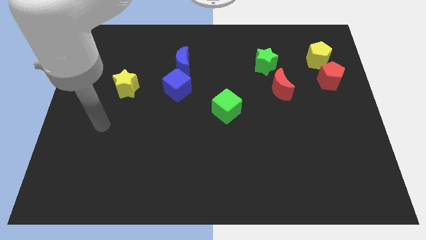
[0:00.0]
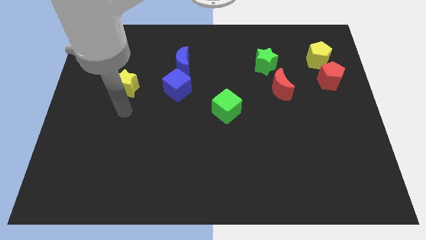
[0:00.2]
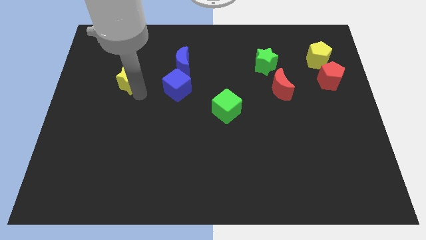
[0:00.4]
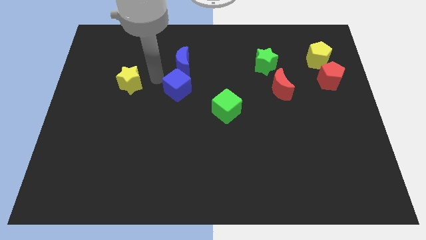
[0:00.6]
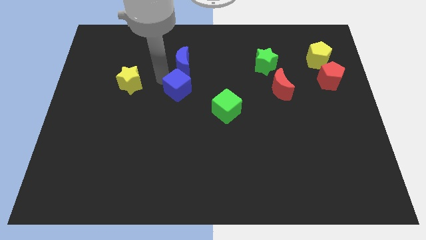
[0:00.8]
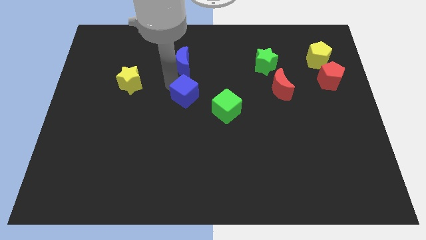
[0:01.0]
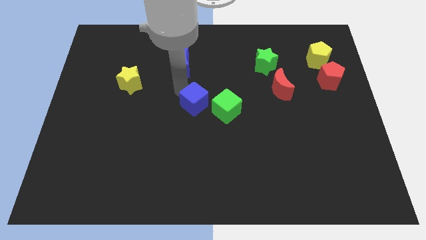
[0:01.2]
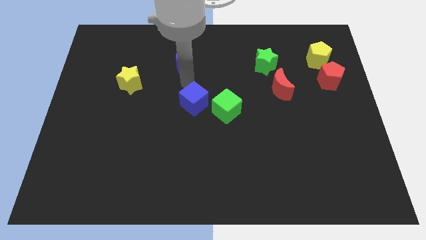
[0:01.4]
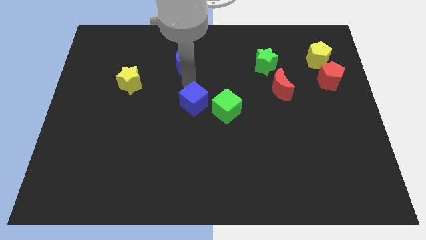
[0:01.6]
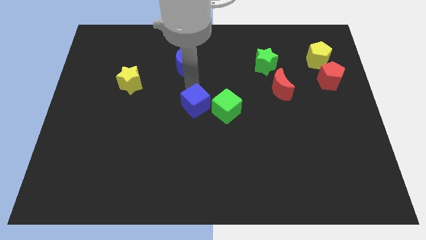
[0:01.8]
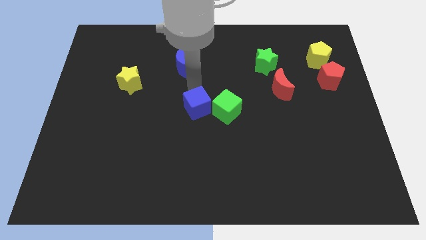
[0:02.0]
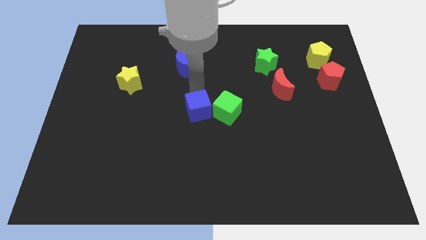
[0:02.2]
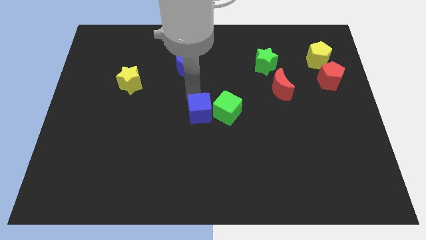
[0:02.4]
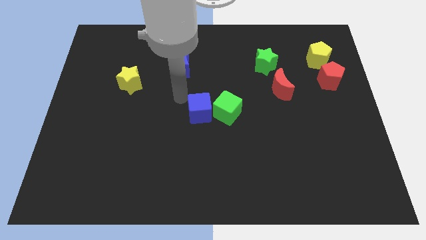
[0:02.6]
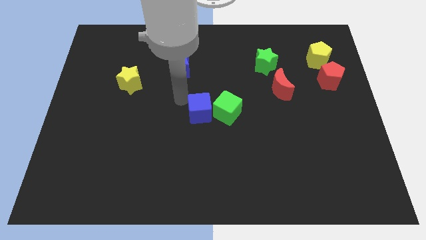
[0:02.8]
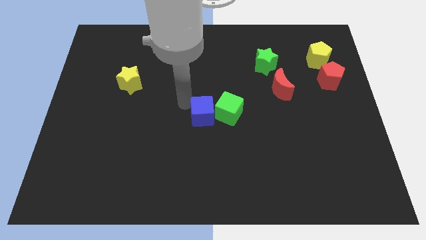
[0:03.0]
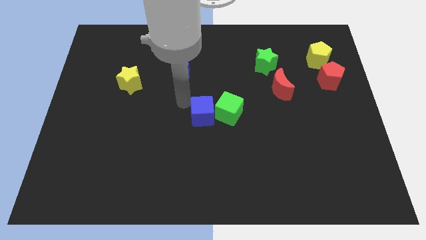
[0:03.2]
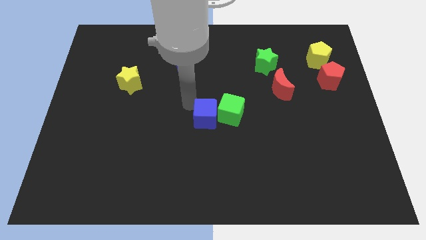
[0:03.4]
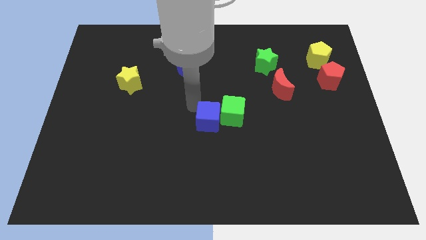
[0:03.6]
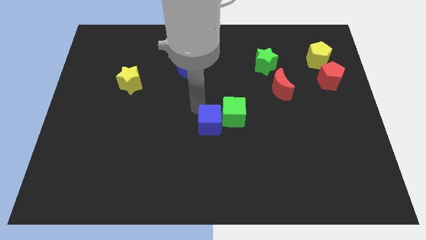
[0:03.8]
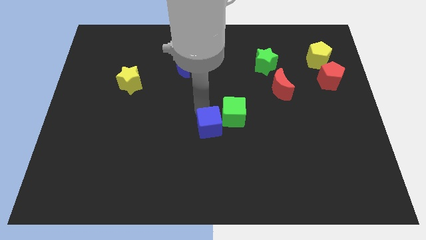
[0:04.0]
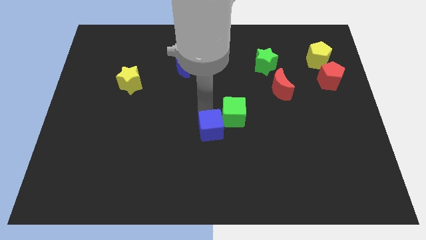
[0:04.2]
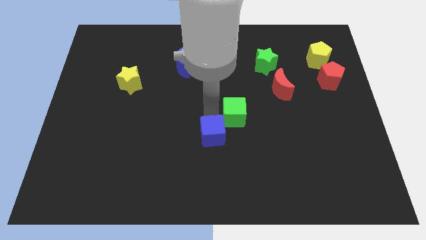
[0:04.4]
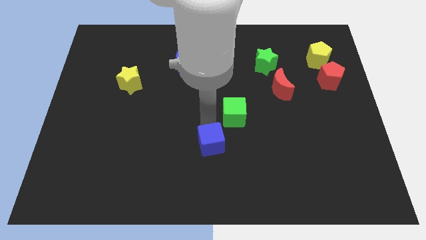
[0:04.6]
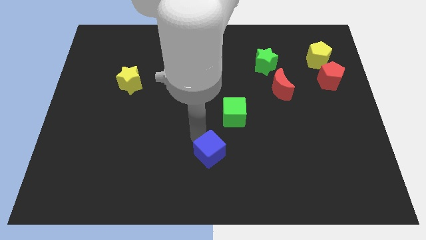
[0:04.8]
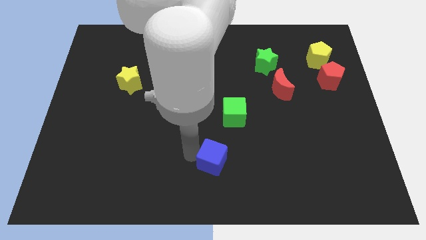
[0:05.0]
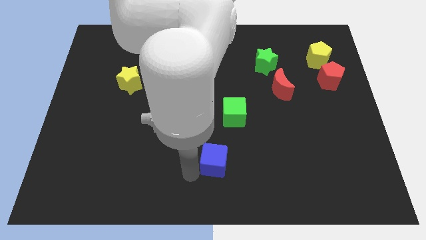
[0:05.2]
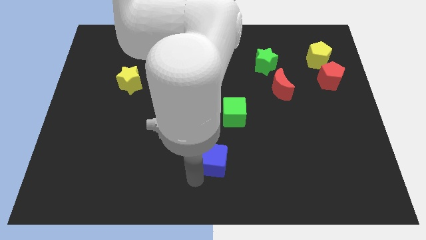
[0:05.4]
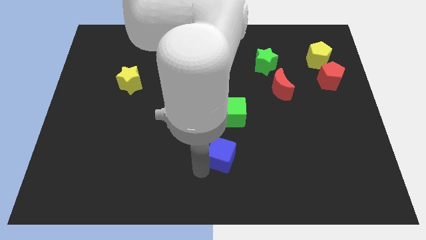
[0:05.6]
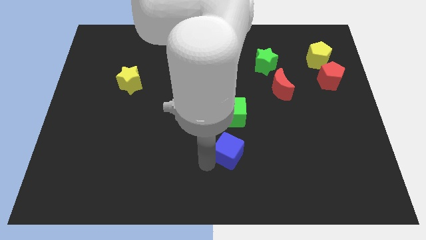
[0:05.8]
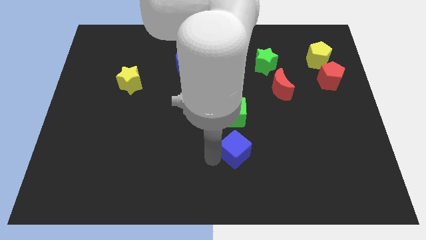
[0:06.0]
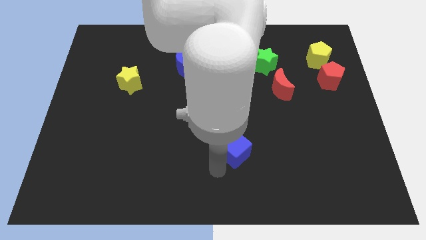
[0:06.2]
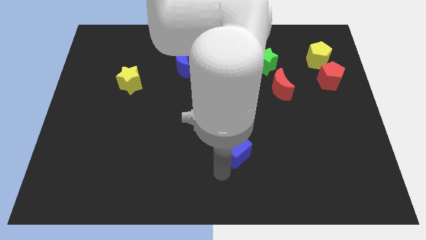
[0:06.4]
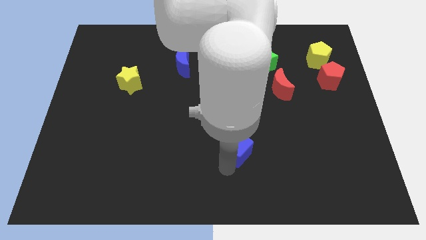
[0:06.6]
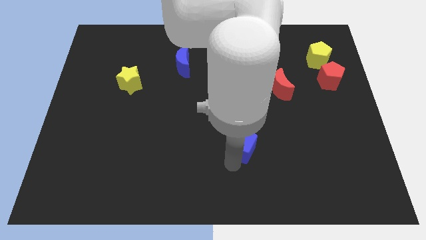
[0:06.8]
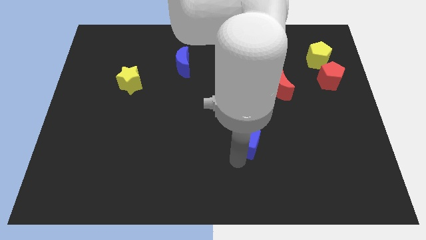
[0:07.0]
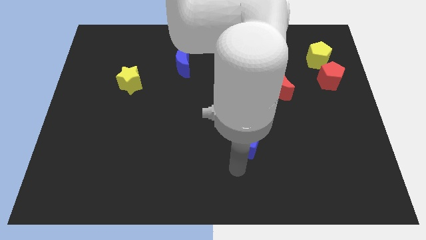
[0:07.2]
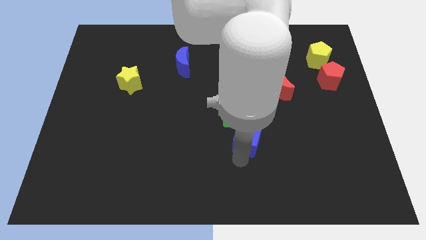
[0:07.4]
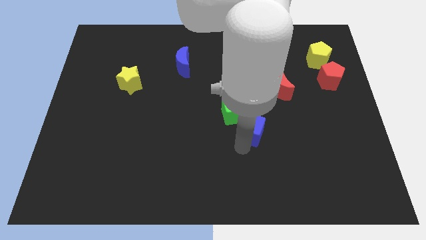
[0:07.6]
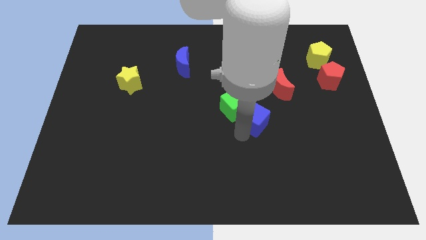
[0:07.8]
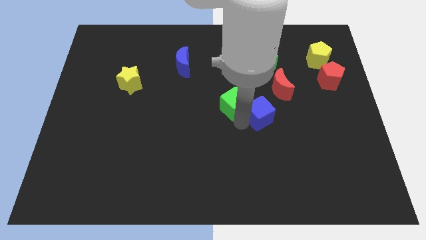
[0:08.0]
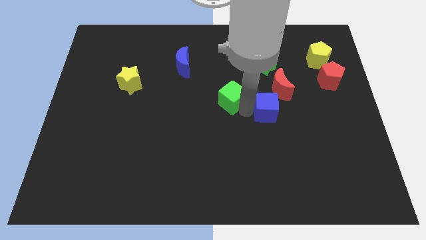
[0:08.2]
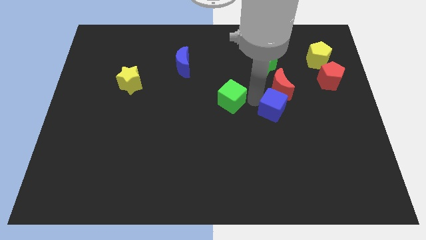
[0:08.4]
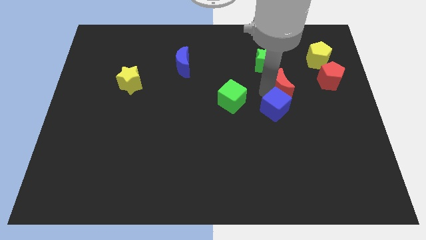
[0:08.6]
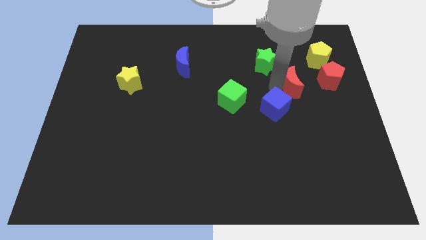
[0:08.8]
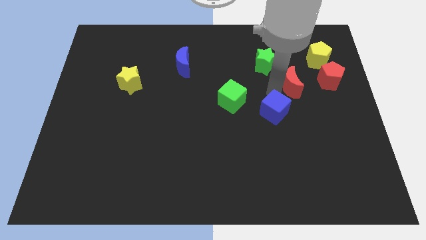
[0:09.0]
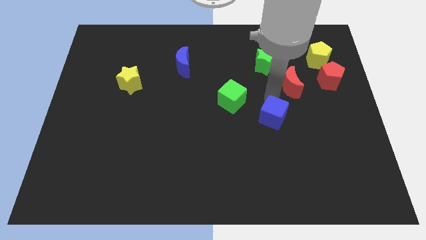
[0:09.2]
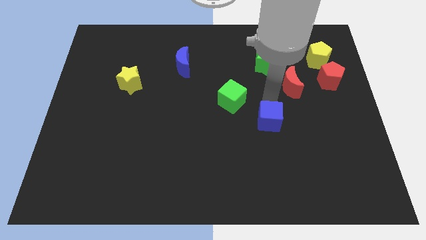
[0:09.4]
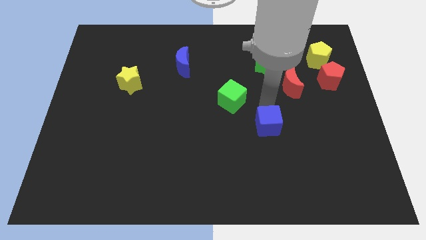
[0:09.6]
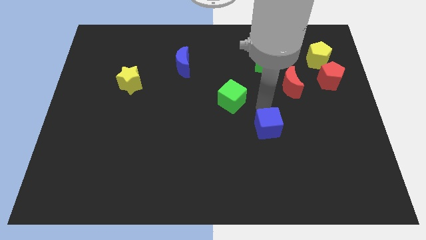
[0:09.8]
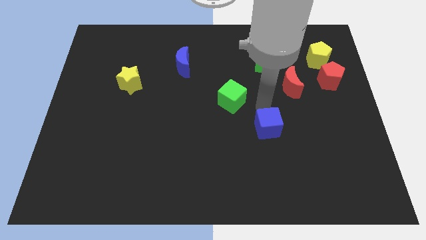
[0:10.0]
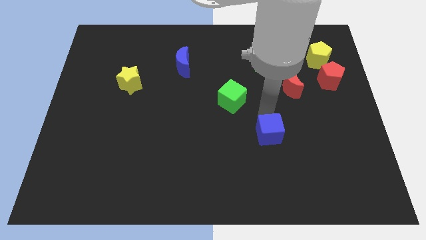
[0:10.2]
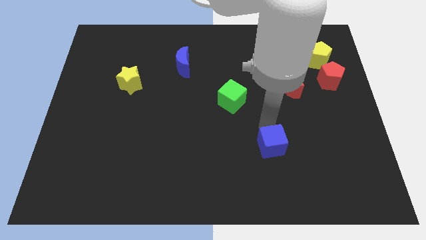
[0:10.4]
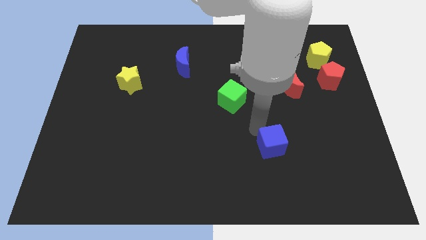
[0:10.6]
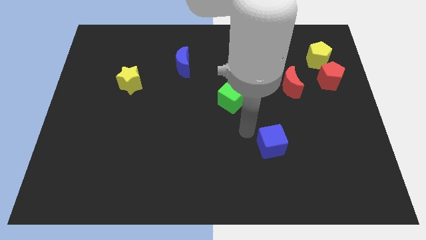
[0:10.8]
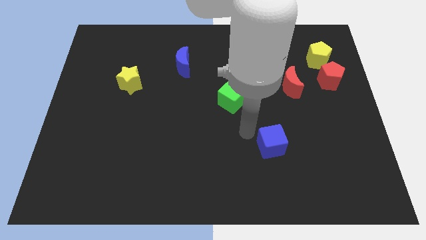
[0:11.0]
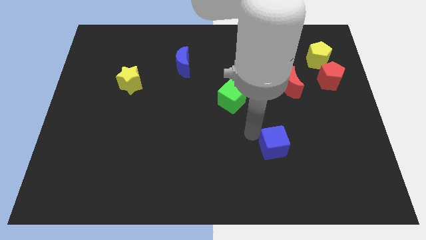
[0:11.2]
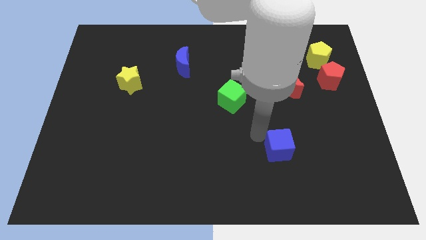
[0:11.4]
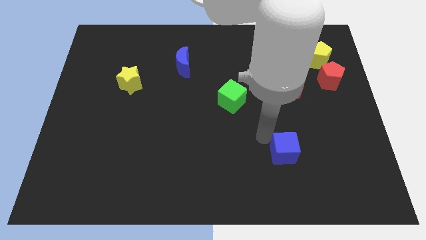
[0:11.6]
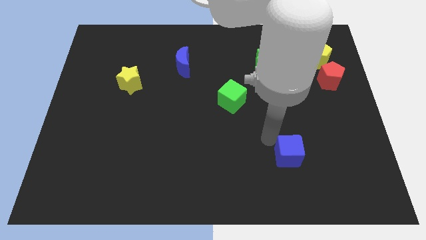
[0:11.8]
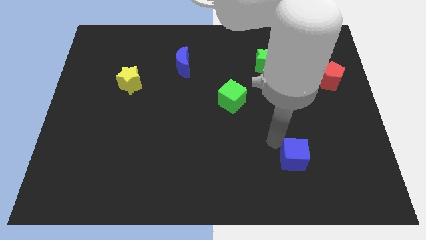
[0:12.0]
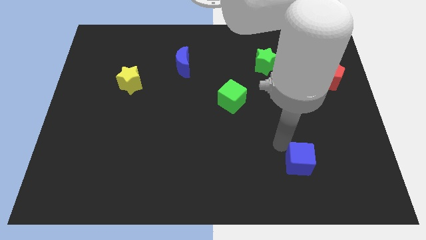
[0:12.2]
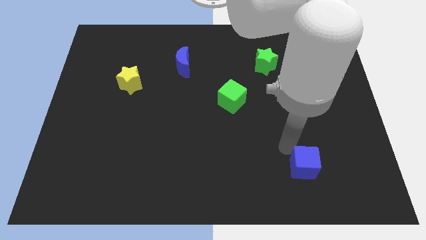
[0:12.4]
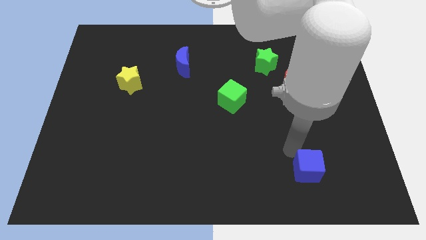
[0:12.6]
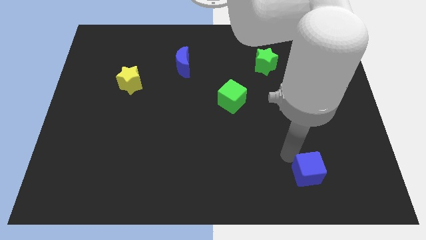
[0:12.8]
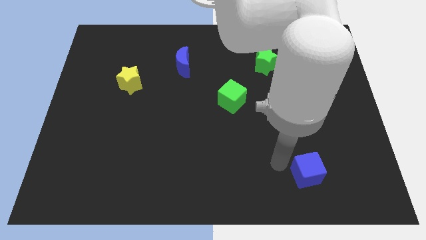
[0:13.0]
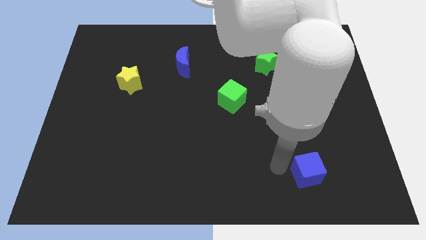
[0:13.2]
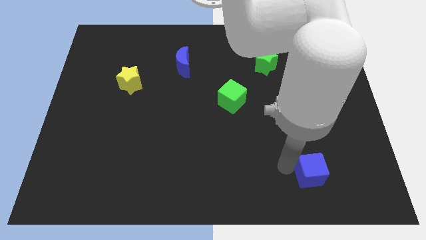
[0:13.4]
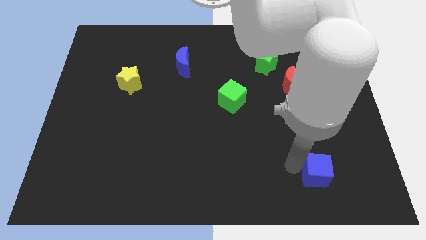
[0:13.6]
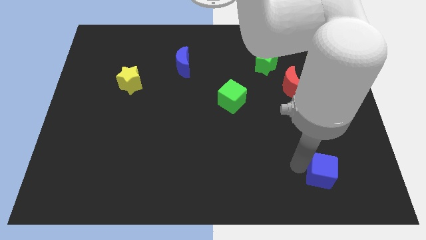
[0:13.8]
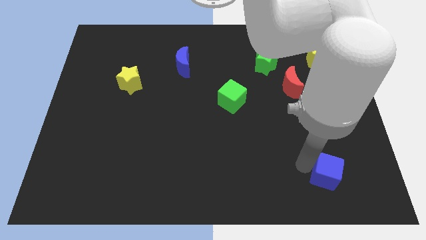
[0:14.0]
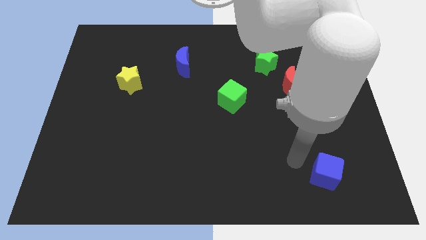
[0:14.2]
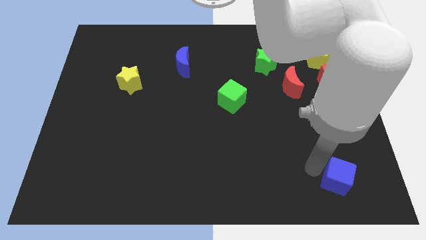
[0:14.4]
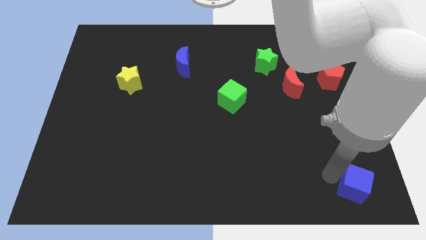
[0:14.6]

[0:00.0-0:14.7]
slide the blue cube to the lower right corner
